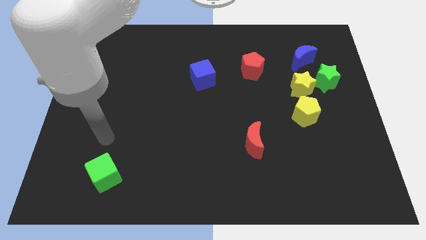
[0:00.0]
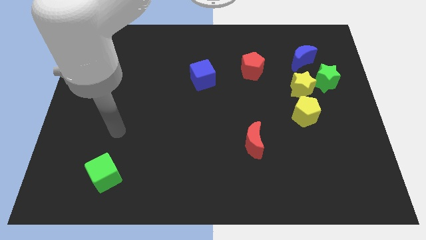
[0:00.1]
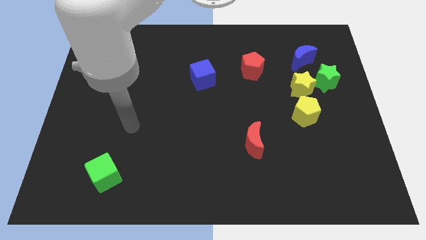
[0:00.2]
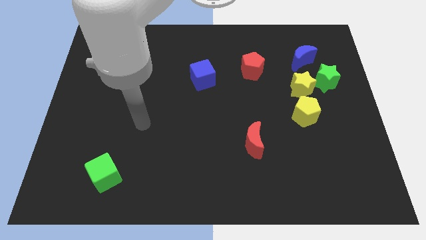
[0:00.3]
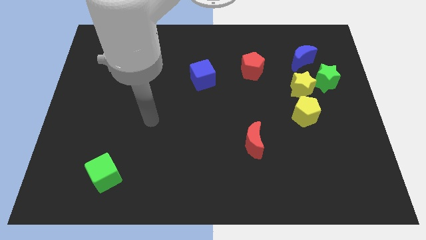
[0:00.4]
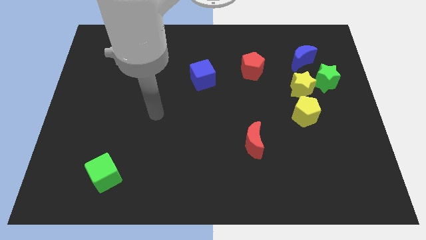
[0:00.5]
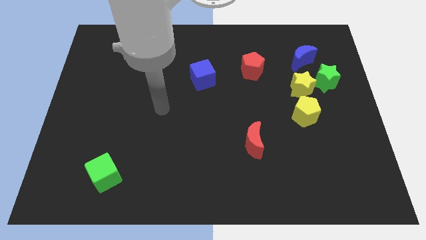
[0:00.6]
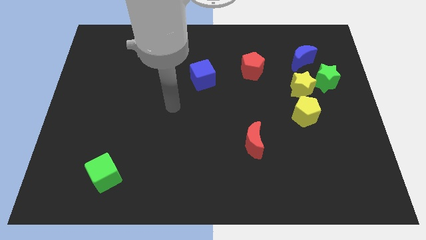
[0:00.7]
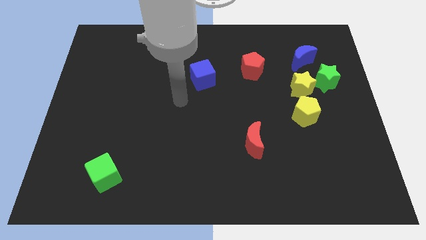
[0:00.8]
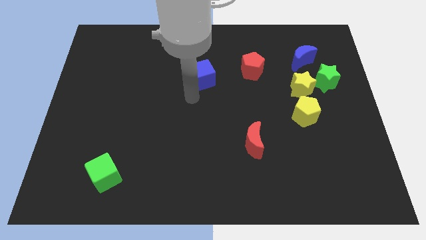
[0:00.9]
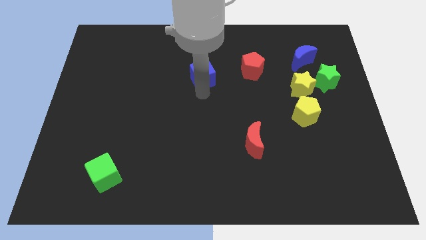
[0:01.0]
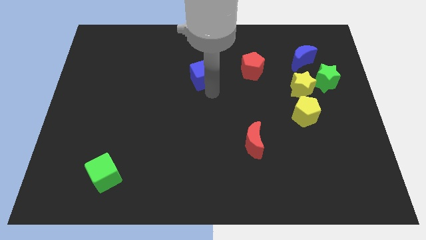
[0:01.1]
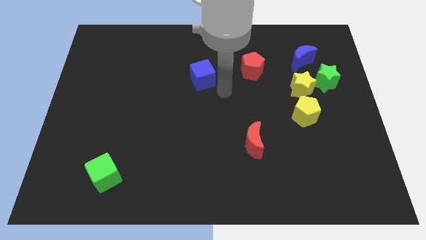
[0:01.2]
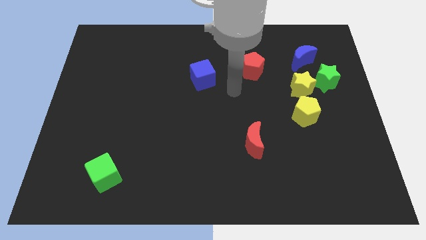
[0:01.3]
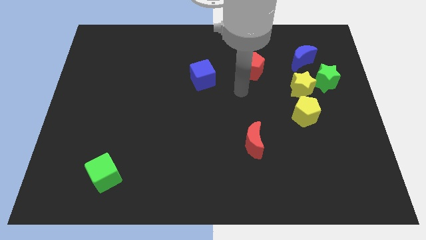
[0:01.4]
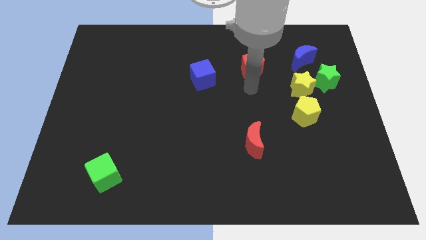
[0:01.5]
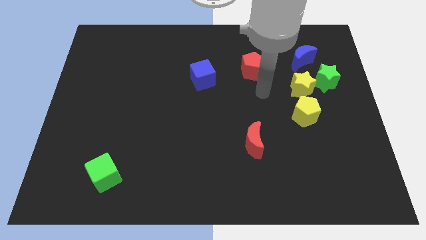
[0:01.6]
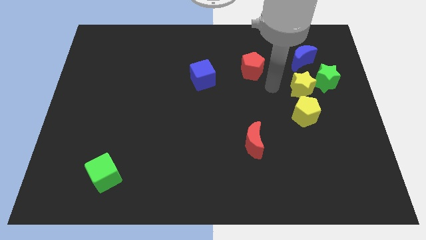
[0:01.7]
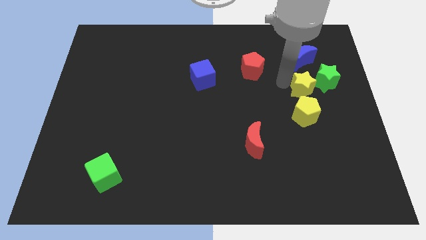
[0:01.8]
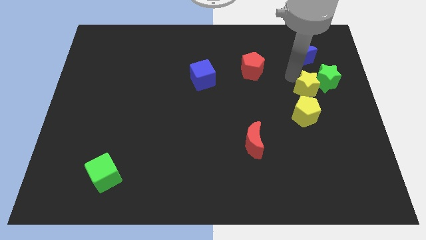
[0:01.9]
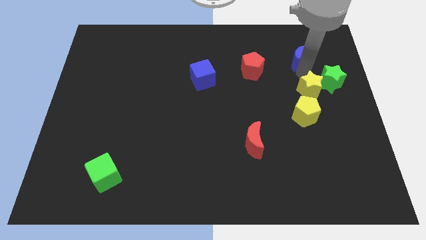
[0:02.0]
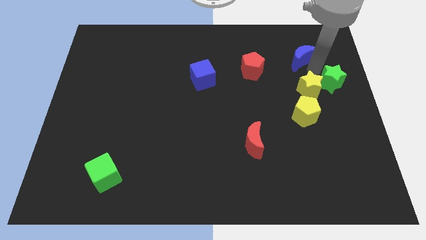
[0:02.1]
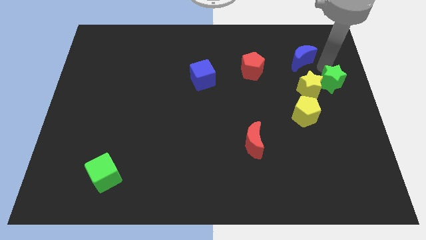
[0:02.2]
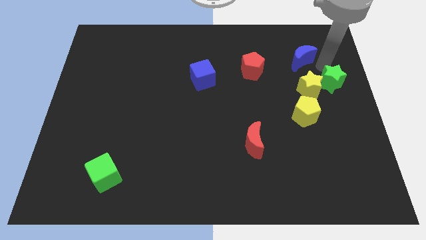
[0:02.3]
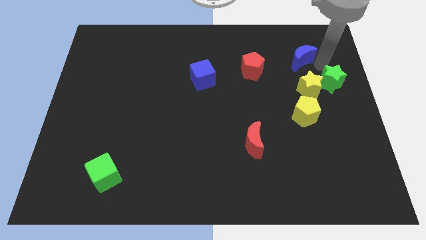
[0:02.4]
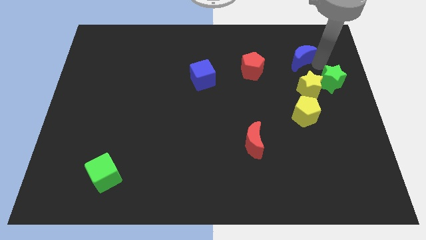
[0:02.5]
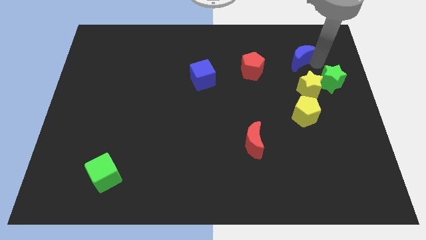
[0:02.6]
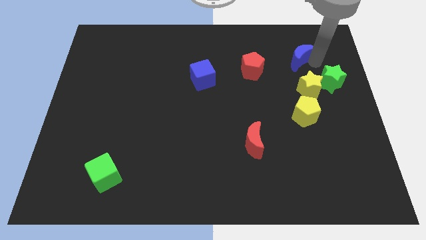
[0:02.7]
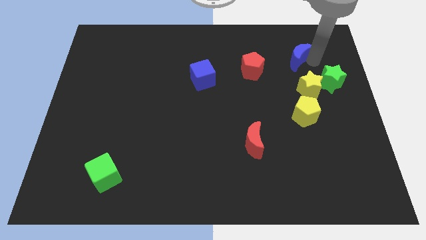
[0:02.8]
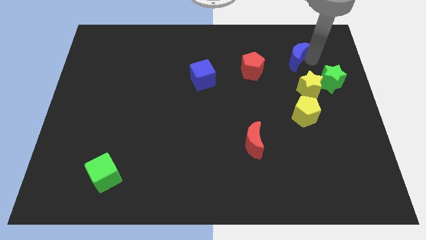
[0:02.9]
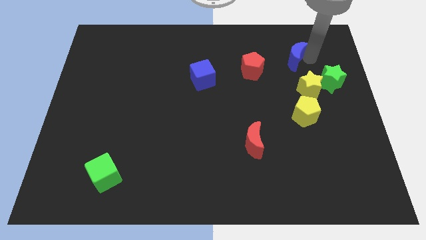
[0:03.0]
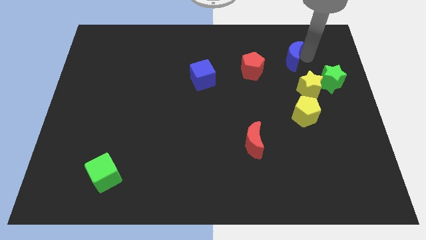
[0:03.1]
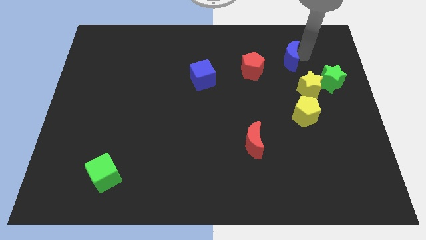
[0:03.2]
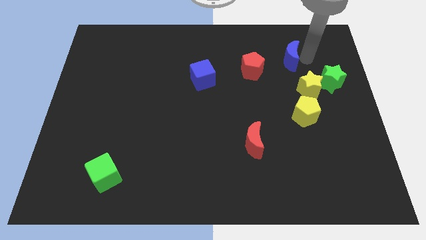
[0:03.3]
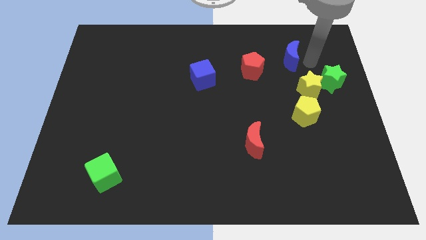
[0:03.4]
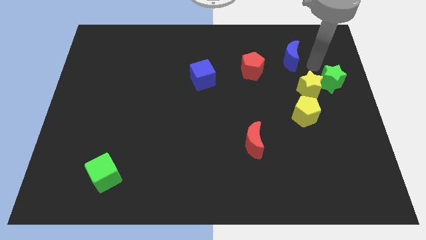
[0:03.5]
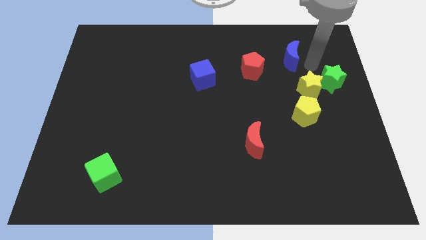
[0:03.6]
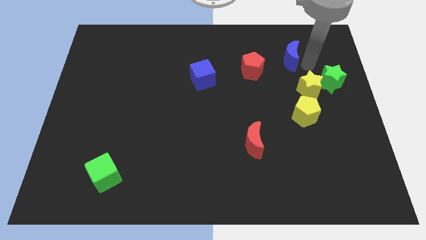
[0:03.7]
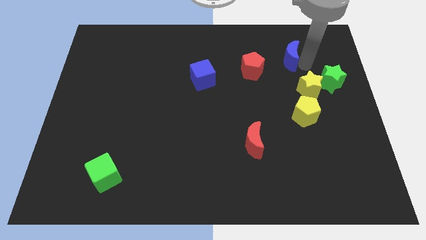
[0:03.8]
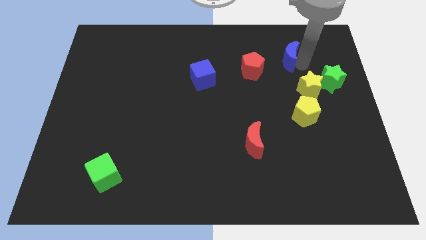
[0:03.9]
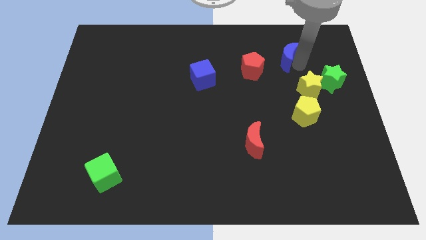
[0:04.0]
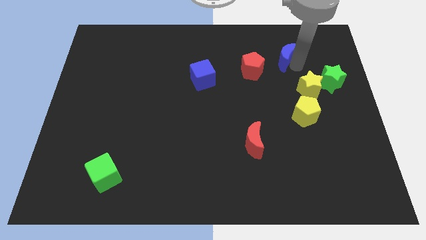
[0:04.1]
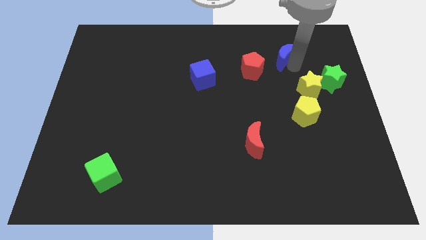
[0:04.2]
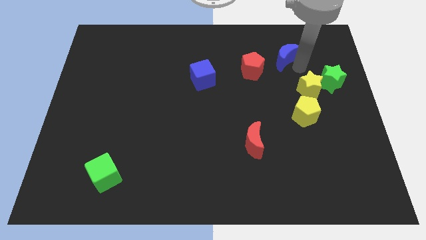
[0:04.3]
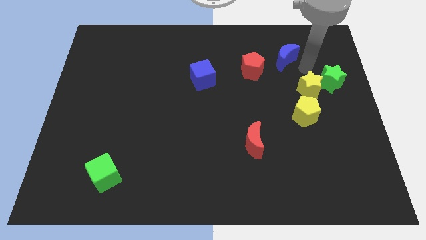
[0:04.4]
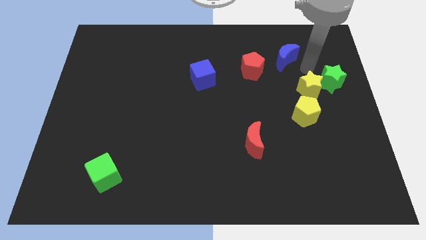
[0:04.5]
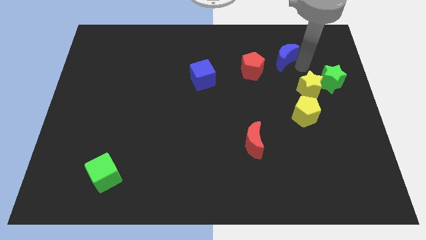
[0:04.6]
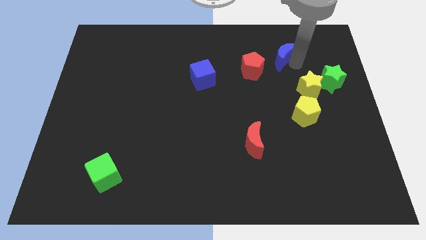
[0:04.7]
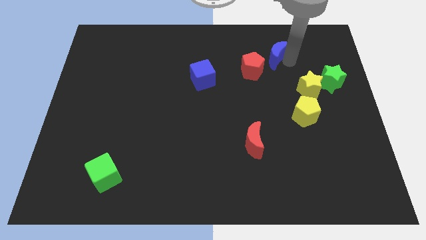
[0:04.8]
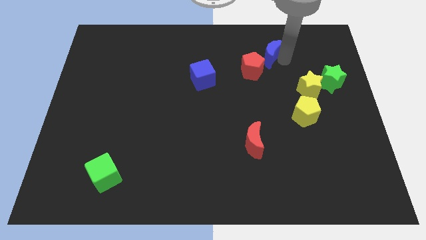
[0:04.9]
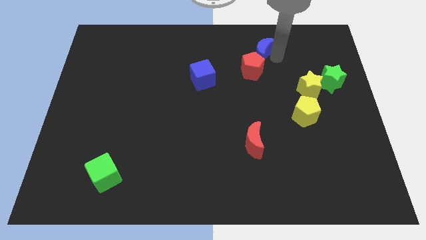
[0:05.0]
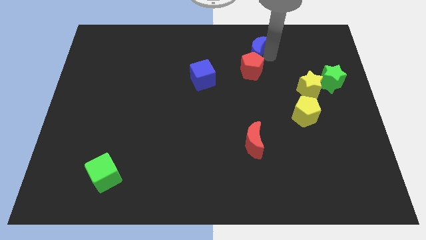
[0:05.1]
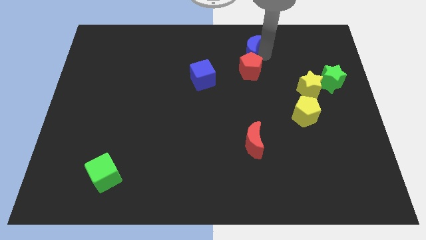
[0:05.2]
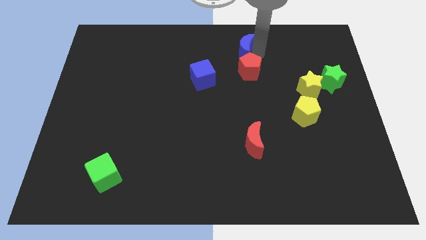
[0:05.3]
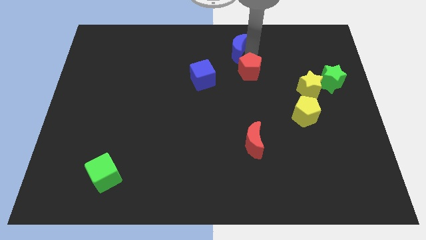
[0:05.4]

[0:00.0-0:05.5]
move the blue moon to the top

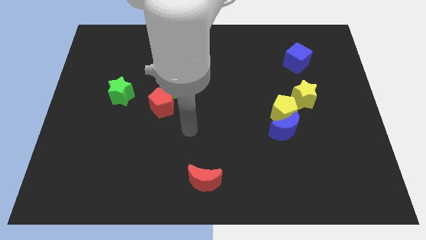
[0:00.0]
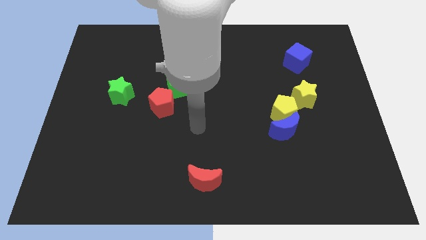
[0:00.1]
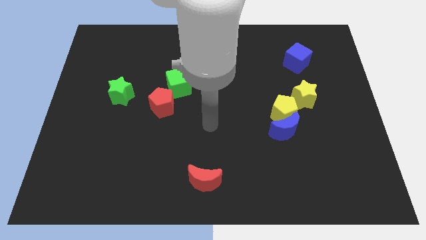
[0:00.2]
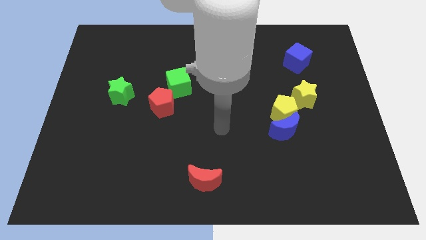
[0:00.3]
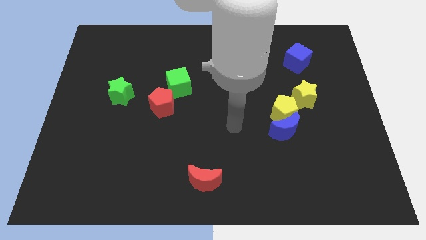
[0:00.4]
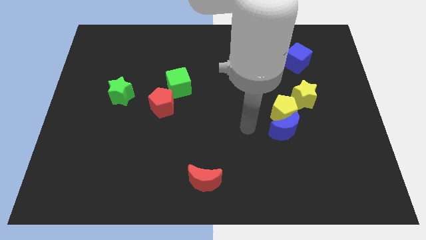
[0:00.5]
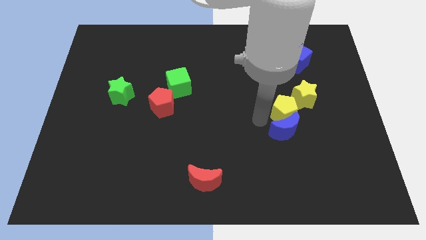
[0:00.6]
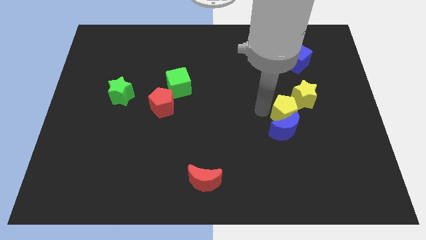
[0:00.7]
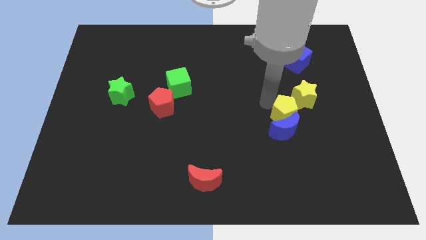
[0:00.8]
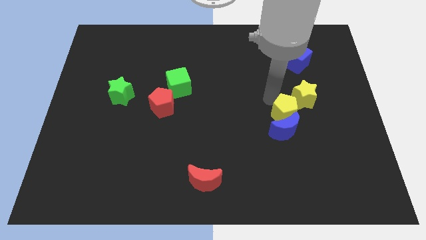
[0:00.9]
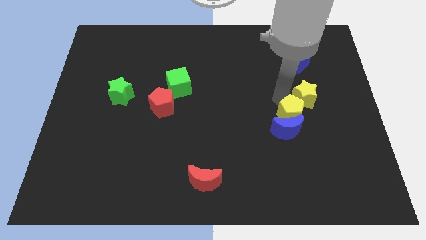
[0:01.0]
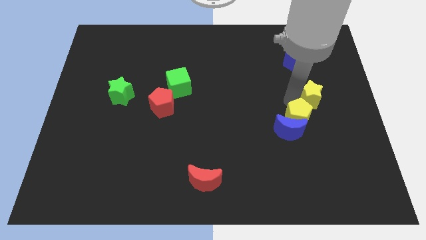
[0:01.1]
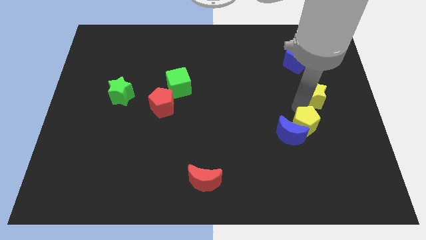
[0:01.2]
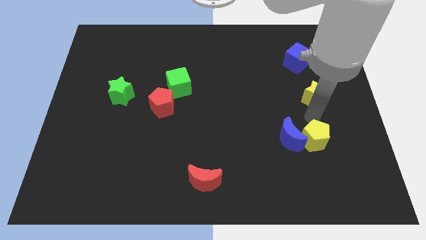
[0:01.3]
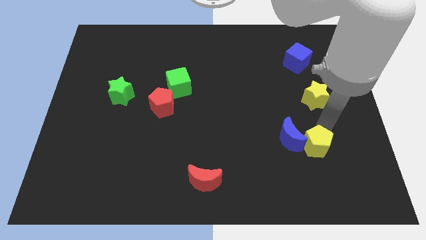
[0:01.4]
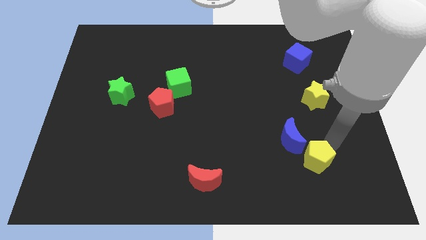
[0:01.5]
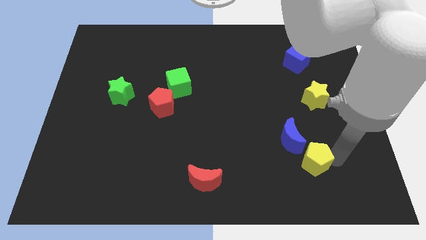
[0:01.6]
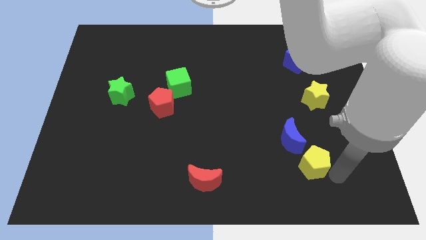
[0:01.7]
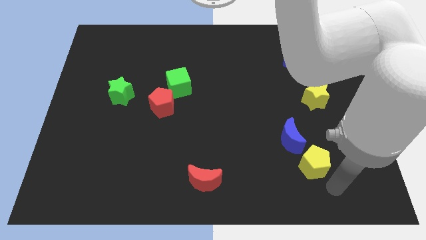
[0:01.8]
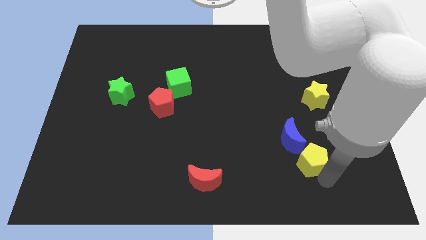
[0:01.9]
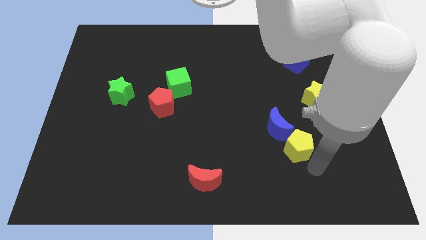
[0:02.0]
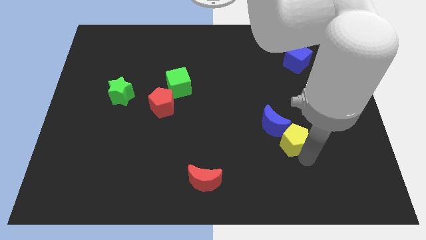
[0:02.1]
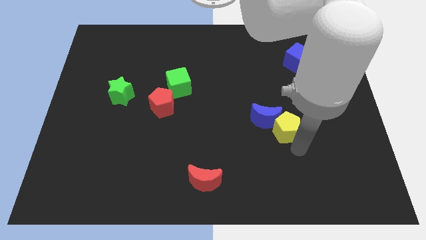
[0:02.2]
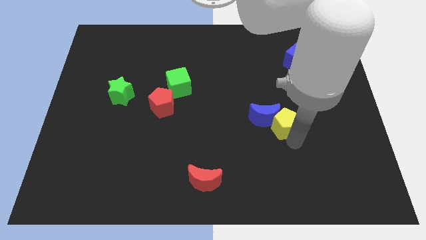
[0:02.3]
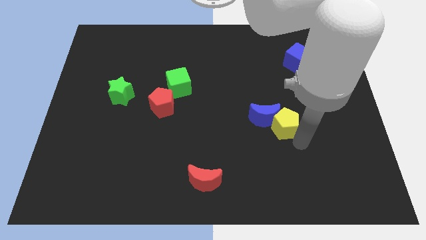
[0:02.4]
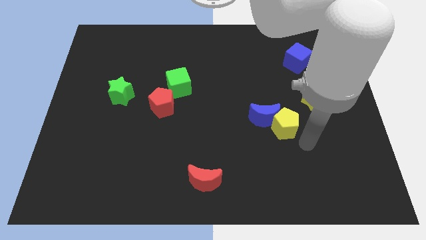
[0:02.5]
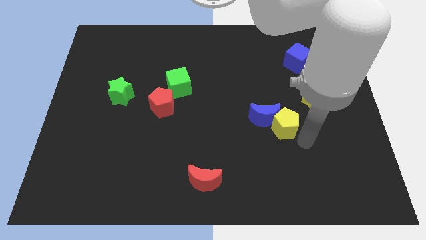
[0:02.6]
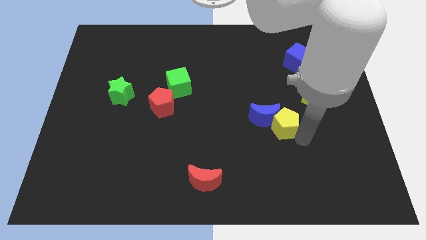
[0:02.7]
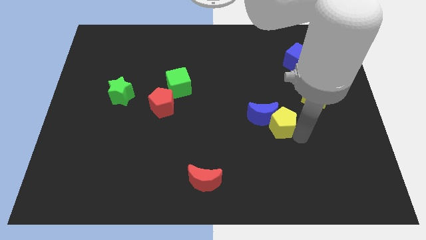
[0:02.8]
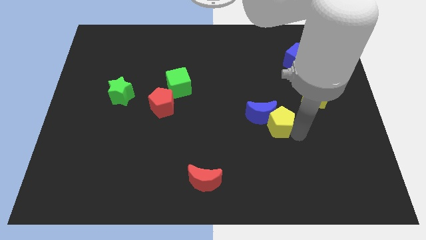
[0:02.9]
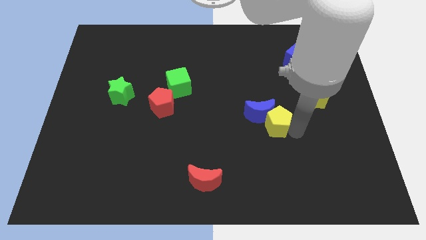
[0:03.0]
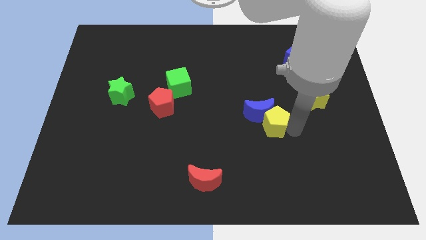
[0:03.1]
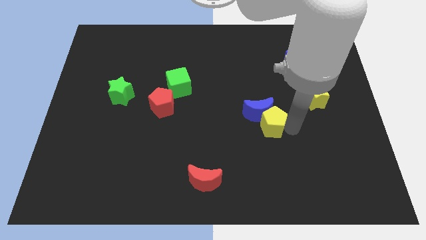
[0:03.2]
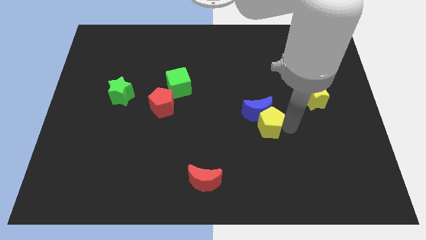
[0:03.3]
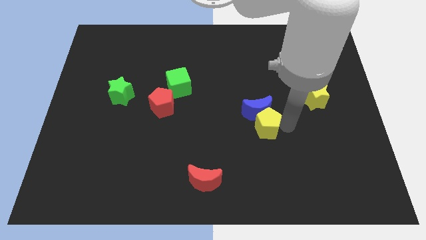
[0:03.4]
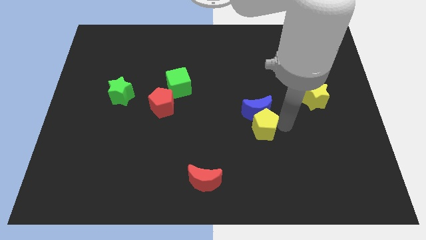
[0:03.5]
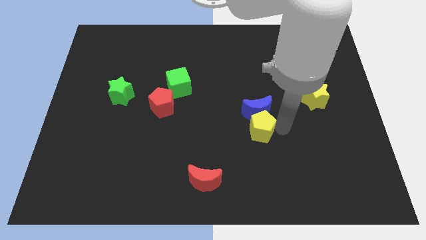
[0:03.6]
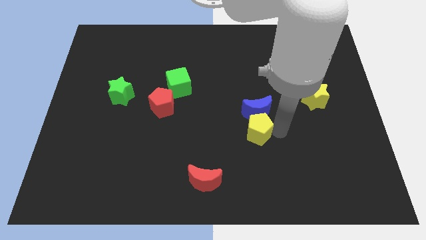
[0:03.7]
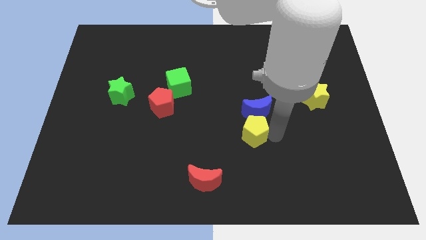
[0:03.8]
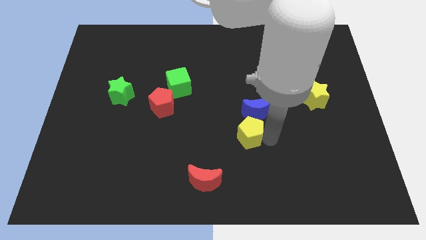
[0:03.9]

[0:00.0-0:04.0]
push the yellow pentagon to the middle
